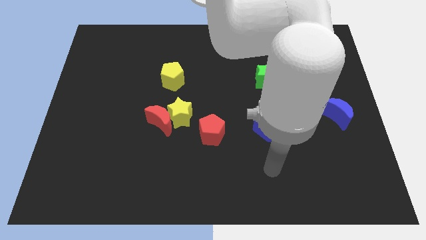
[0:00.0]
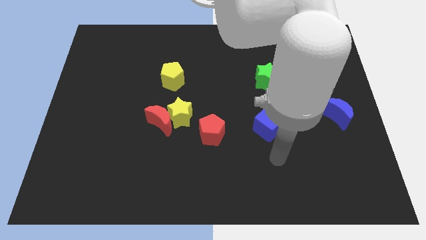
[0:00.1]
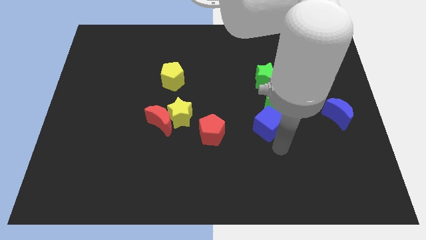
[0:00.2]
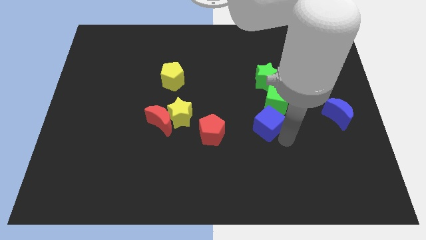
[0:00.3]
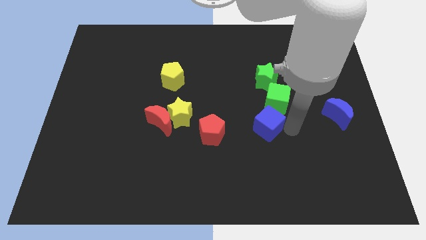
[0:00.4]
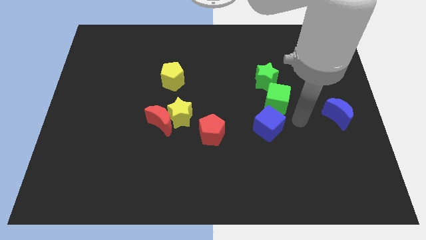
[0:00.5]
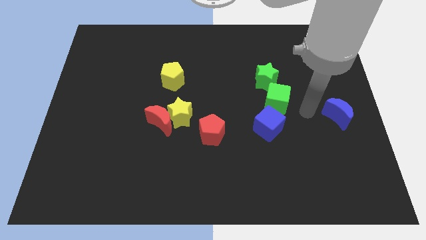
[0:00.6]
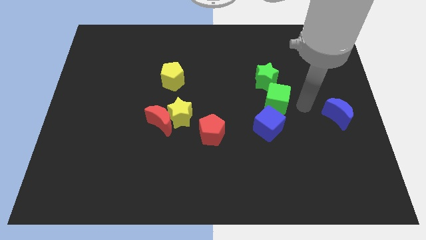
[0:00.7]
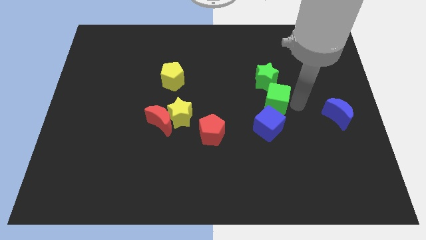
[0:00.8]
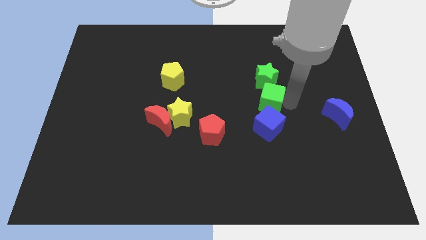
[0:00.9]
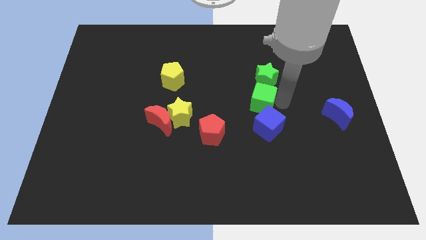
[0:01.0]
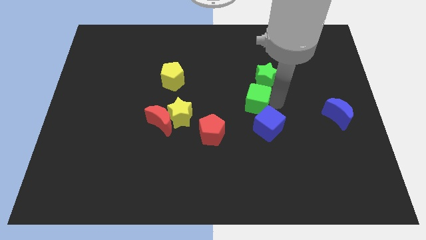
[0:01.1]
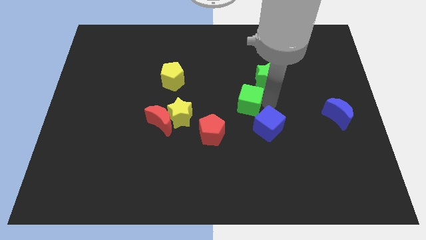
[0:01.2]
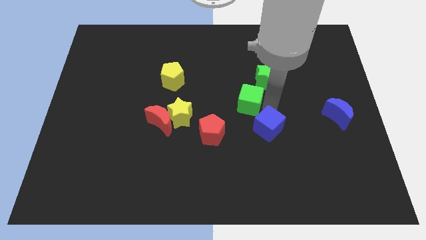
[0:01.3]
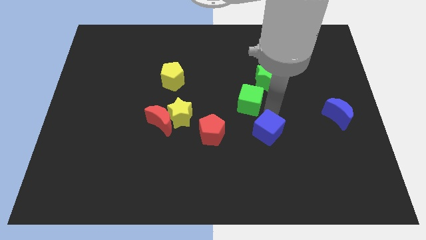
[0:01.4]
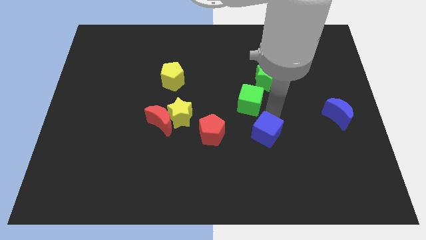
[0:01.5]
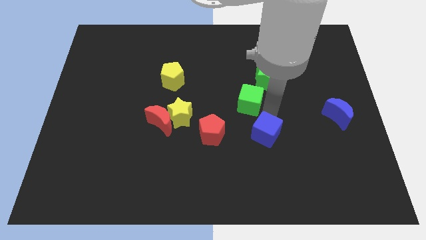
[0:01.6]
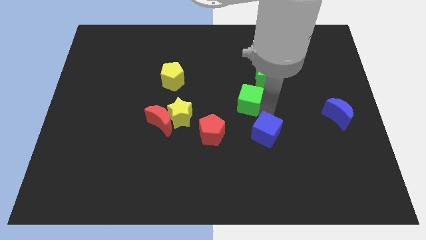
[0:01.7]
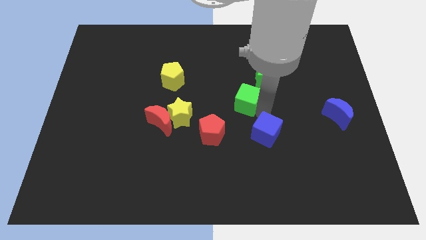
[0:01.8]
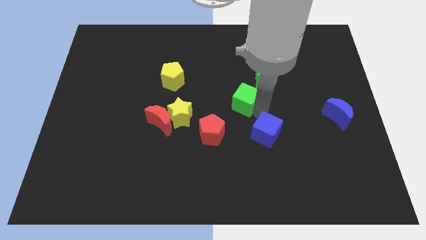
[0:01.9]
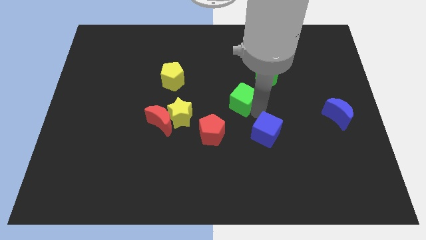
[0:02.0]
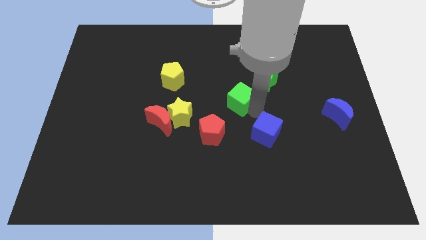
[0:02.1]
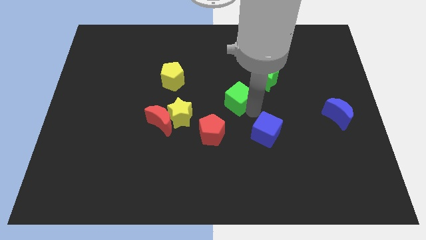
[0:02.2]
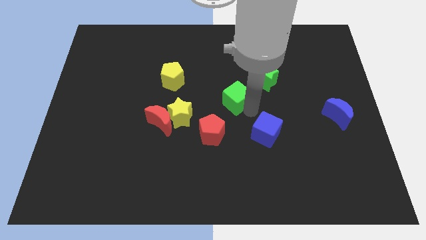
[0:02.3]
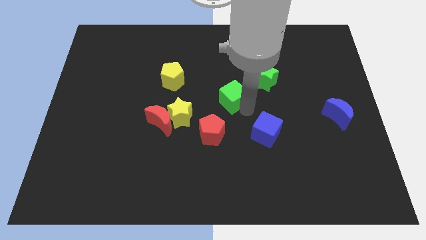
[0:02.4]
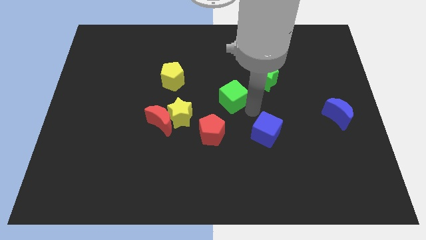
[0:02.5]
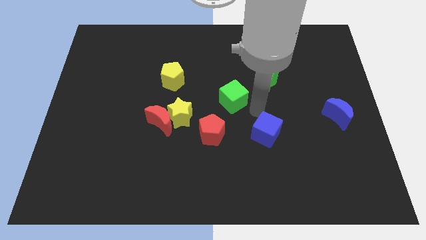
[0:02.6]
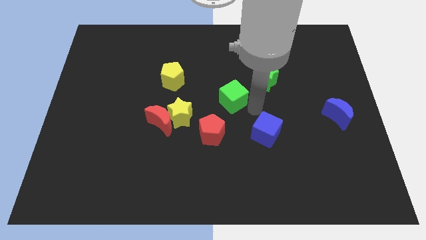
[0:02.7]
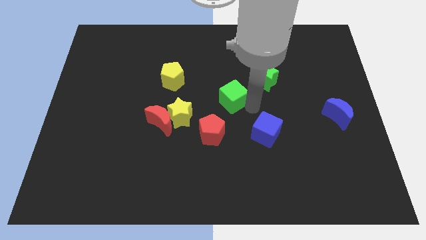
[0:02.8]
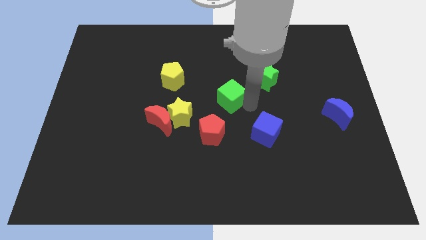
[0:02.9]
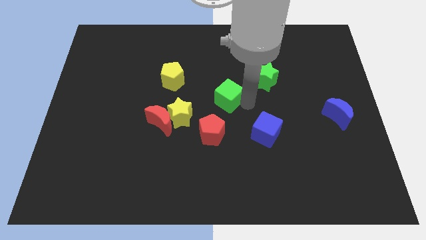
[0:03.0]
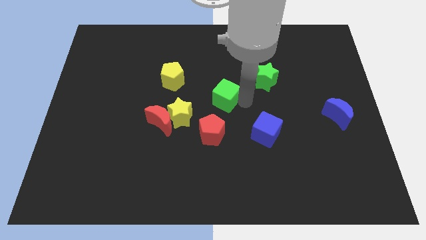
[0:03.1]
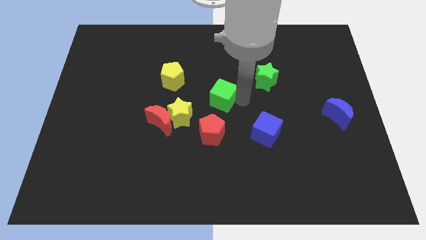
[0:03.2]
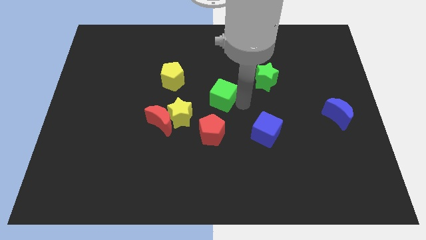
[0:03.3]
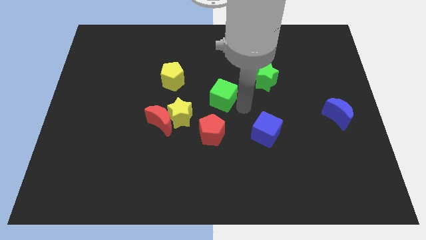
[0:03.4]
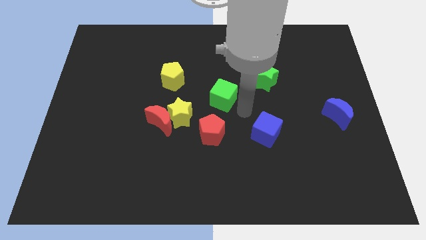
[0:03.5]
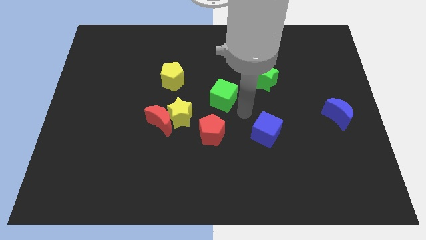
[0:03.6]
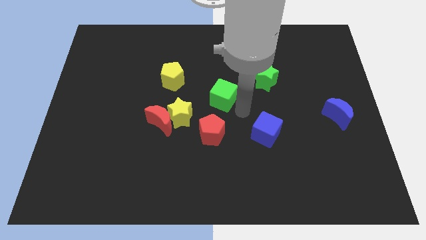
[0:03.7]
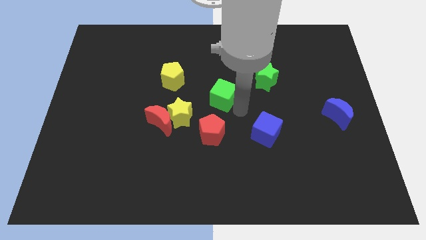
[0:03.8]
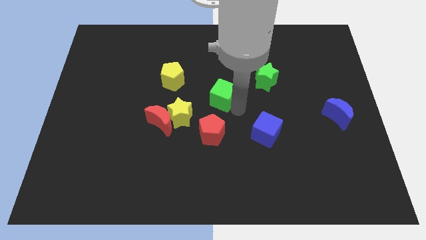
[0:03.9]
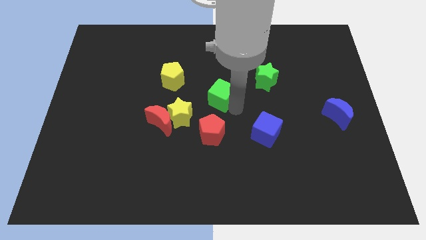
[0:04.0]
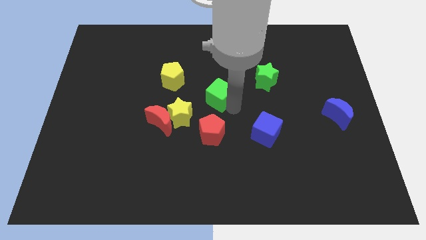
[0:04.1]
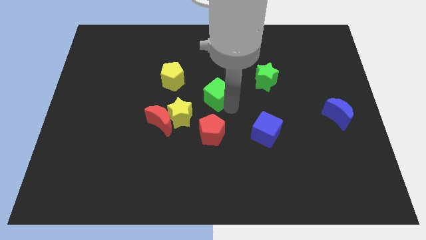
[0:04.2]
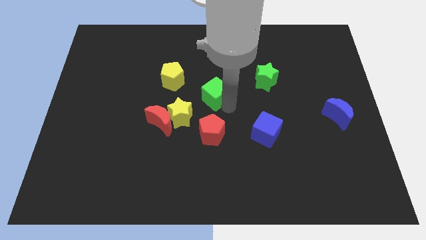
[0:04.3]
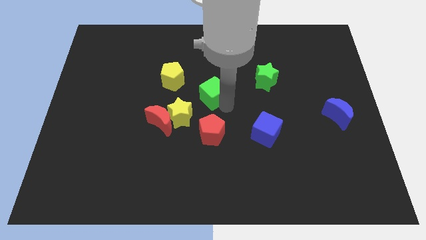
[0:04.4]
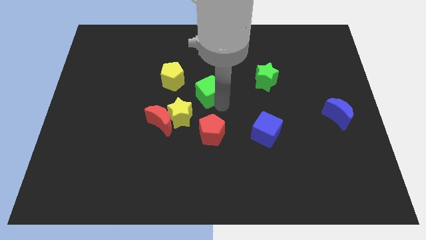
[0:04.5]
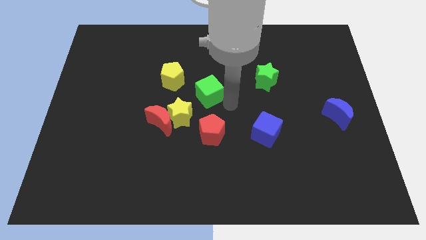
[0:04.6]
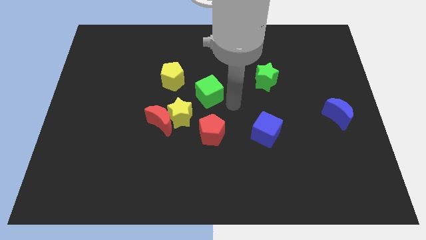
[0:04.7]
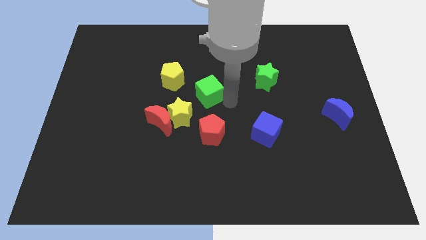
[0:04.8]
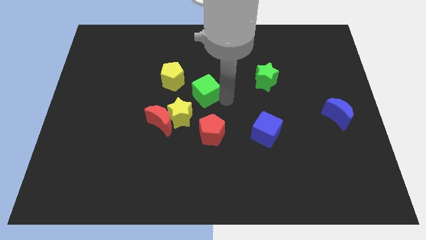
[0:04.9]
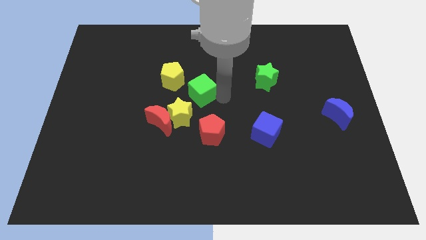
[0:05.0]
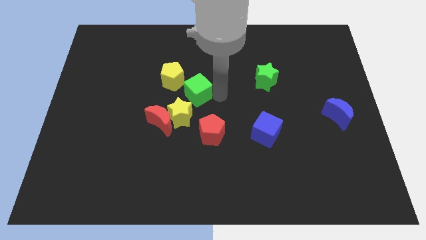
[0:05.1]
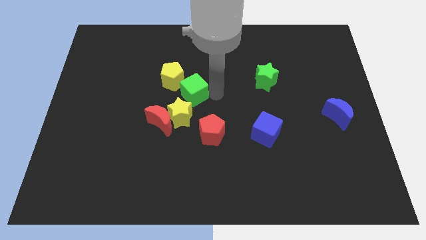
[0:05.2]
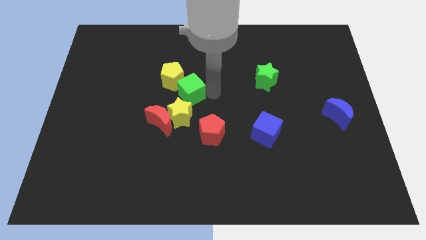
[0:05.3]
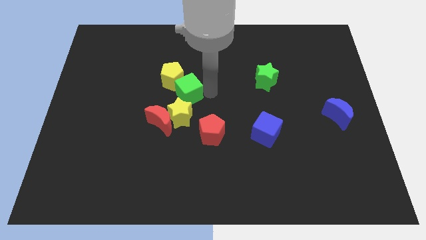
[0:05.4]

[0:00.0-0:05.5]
slide the green cube close to the yellow pentagon

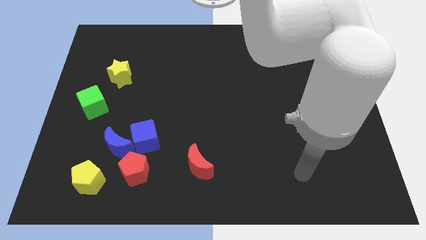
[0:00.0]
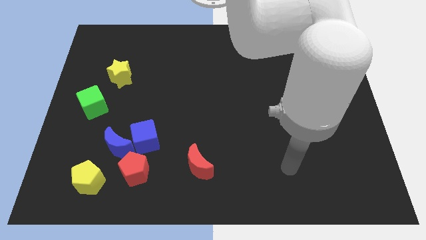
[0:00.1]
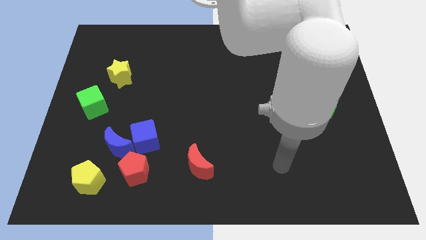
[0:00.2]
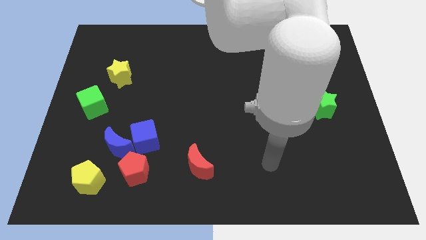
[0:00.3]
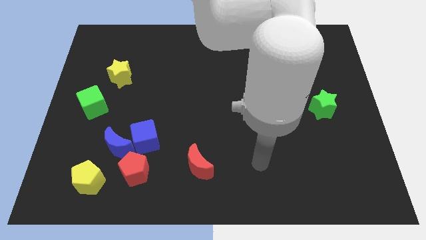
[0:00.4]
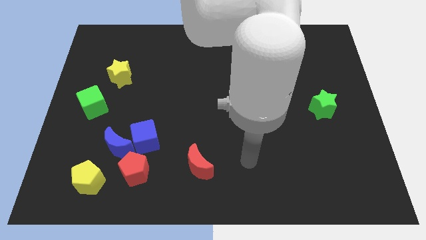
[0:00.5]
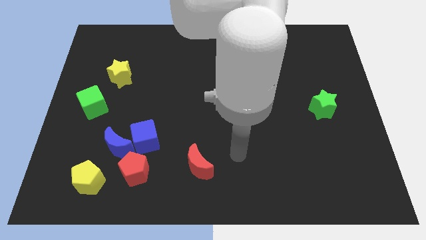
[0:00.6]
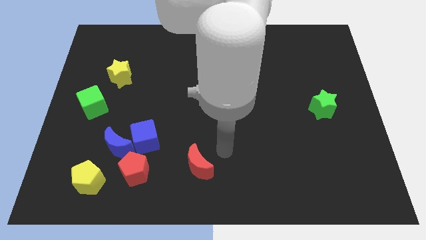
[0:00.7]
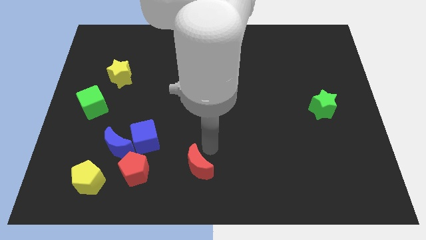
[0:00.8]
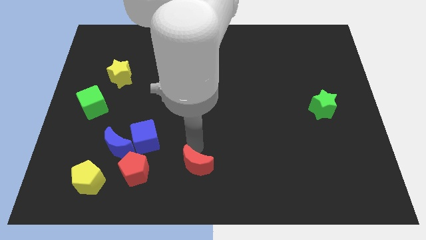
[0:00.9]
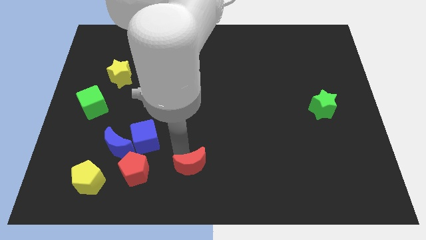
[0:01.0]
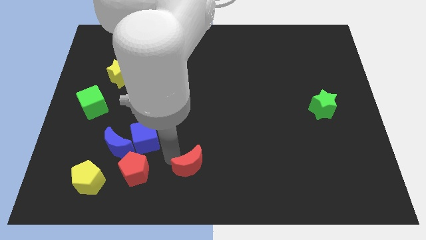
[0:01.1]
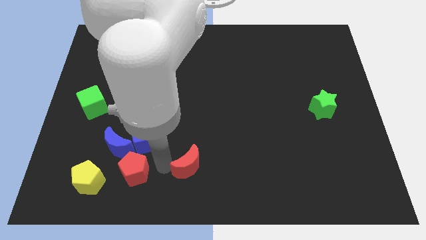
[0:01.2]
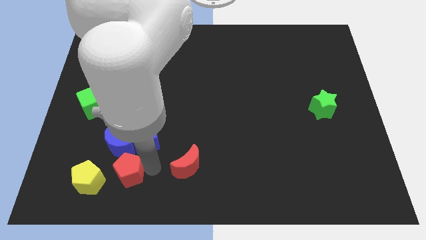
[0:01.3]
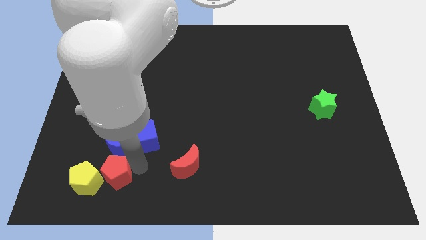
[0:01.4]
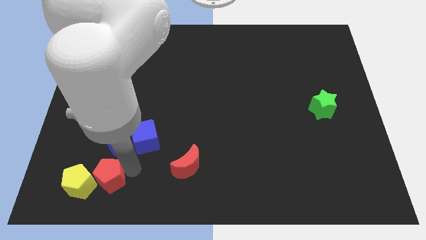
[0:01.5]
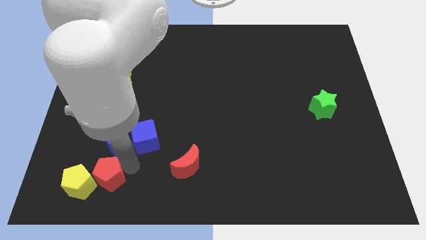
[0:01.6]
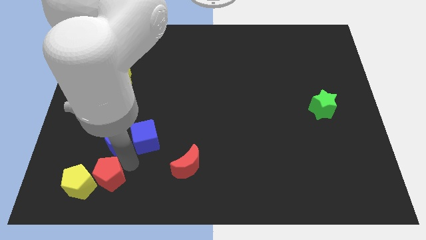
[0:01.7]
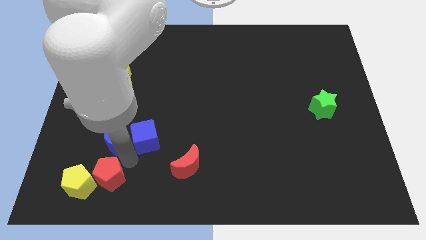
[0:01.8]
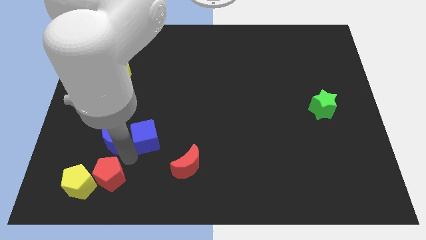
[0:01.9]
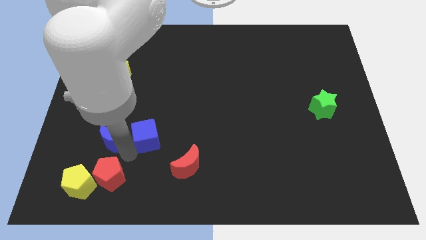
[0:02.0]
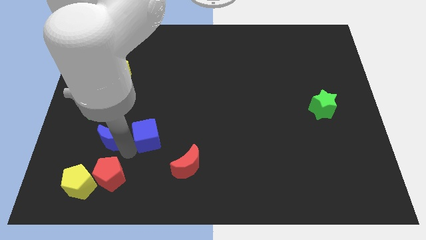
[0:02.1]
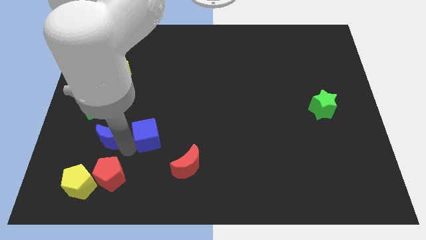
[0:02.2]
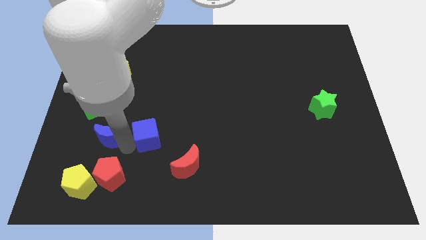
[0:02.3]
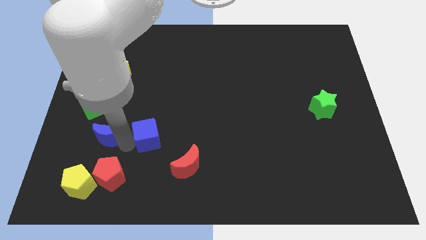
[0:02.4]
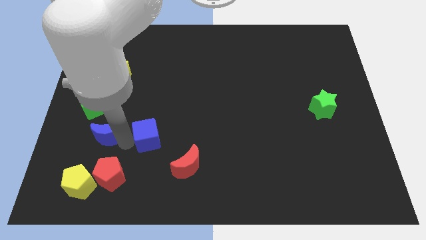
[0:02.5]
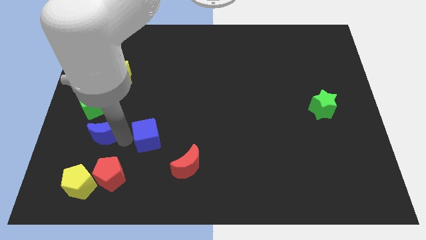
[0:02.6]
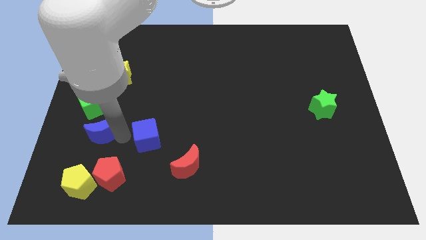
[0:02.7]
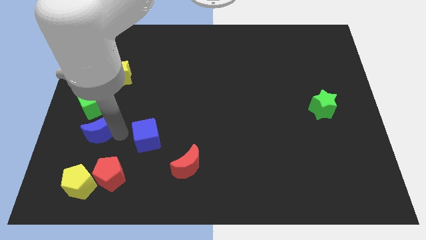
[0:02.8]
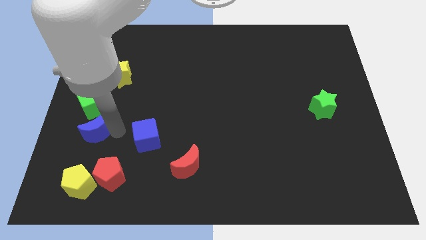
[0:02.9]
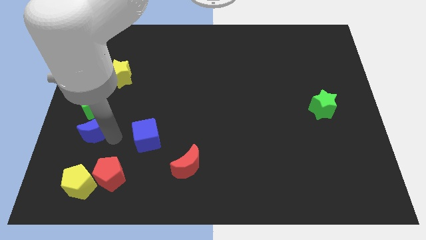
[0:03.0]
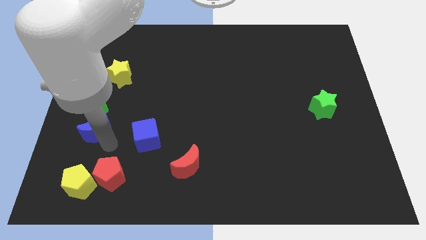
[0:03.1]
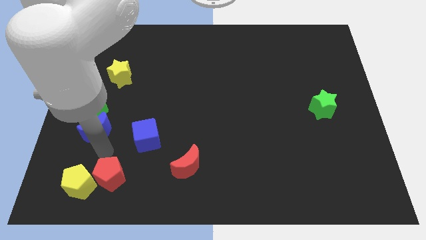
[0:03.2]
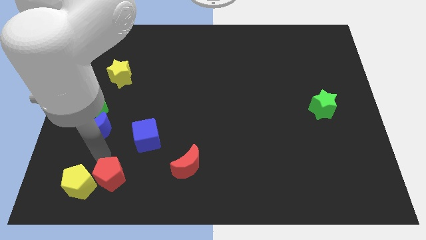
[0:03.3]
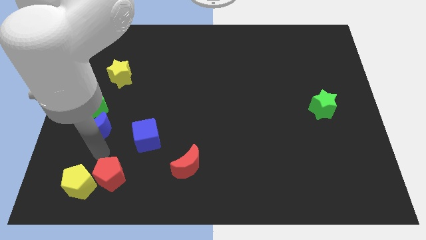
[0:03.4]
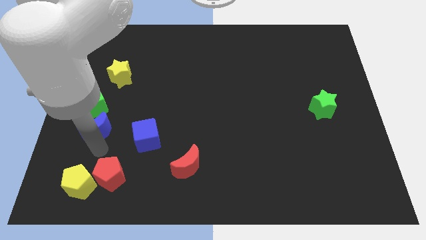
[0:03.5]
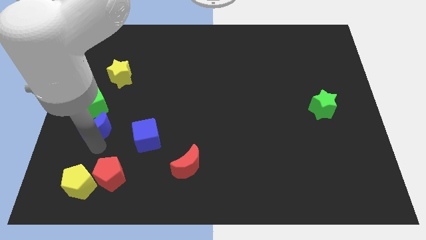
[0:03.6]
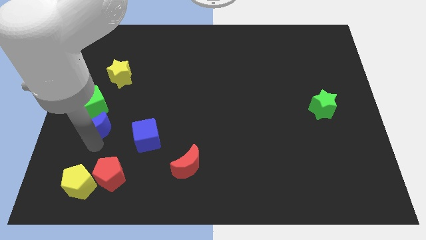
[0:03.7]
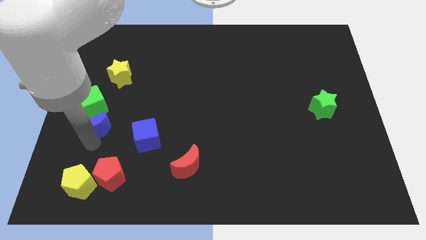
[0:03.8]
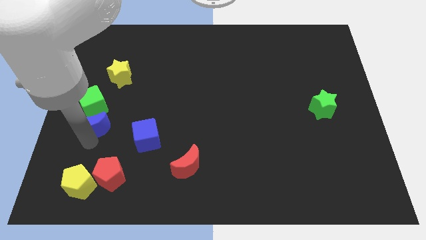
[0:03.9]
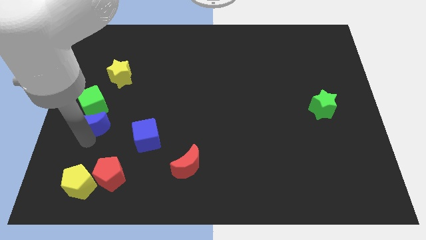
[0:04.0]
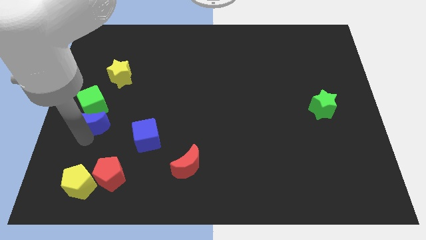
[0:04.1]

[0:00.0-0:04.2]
move the blue moon close to the green cube
